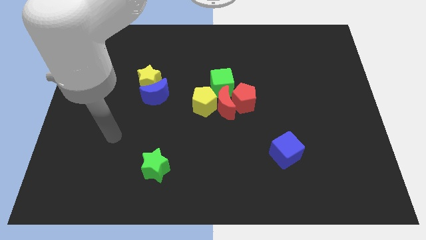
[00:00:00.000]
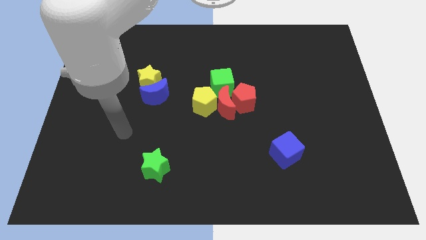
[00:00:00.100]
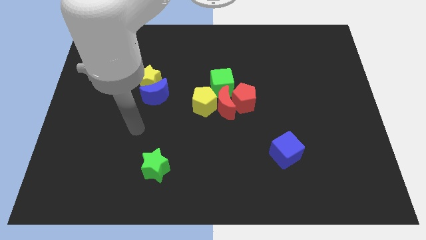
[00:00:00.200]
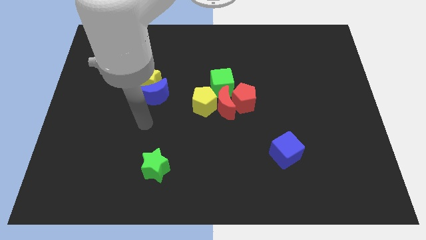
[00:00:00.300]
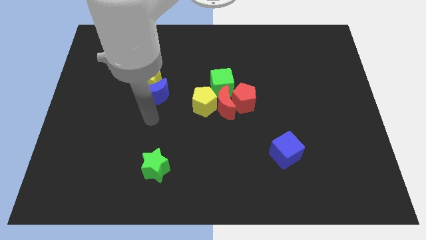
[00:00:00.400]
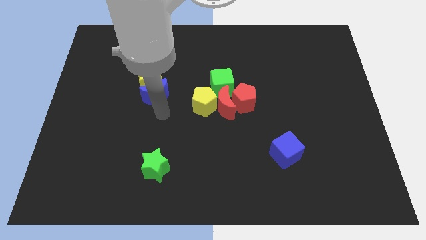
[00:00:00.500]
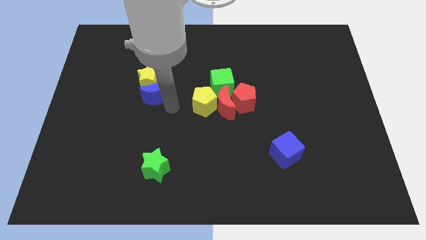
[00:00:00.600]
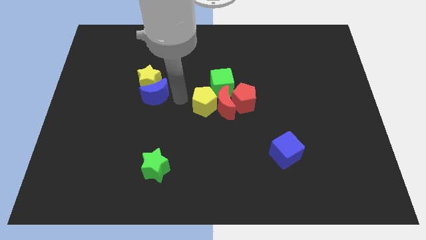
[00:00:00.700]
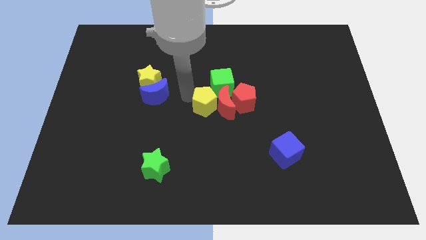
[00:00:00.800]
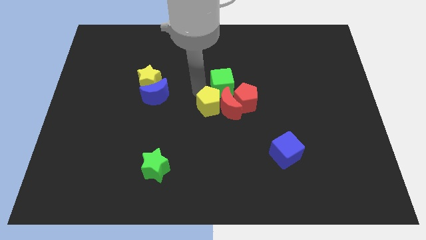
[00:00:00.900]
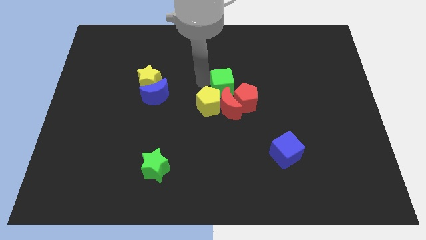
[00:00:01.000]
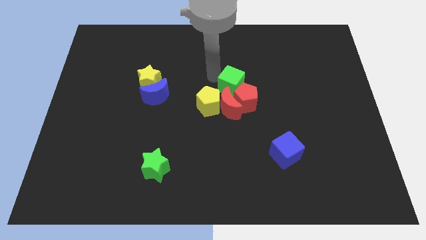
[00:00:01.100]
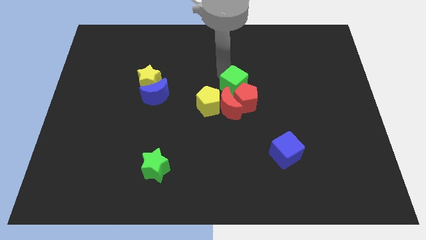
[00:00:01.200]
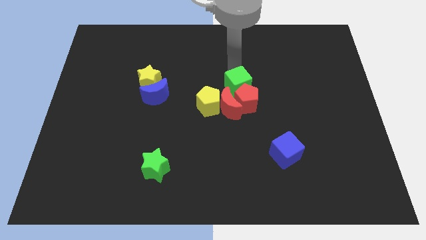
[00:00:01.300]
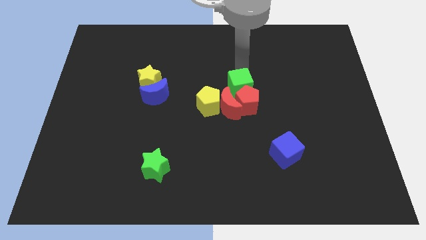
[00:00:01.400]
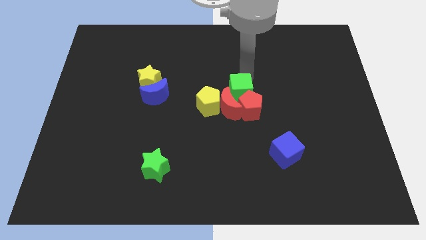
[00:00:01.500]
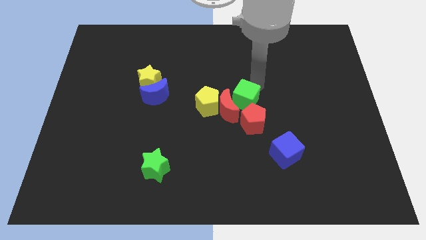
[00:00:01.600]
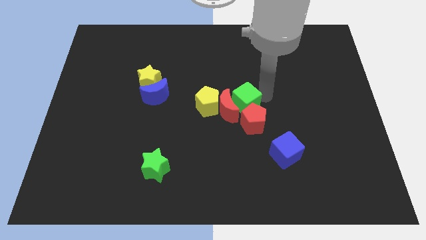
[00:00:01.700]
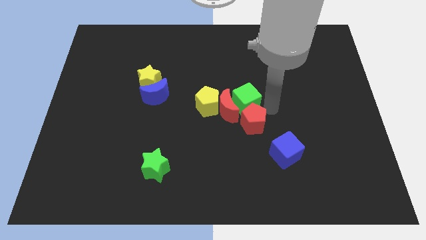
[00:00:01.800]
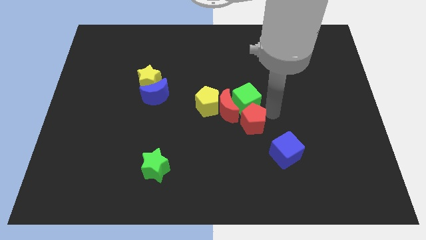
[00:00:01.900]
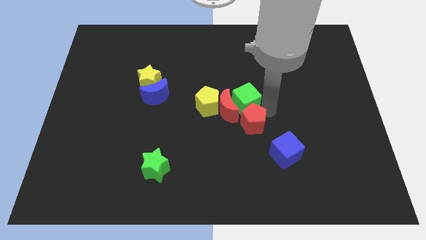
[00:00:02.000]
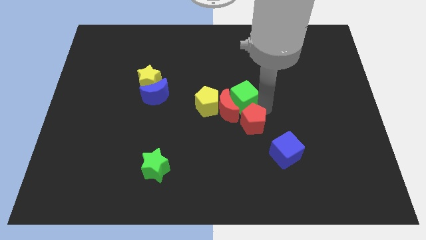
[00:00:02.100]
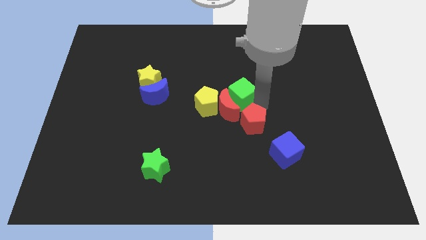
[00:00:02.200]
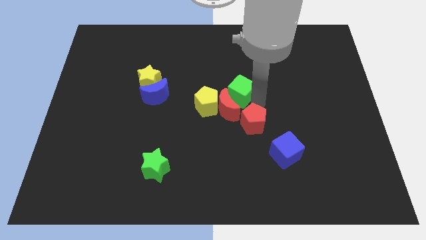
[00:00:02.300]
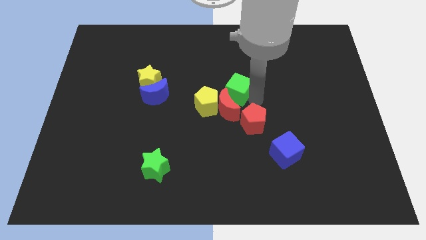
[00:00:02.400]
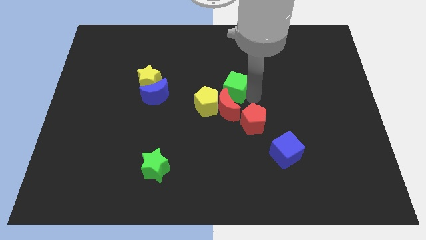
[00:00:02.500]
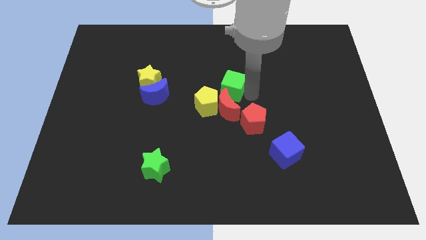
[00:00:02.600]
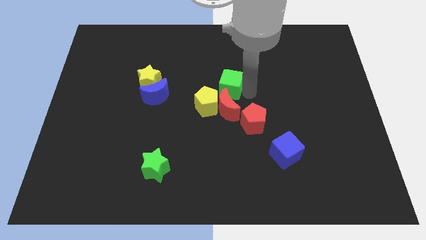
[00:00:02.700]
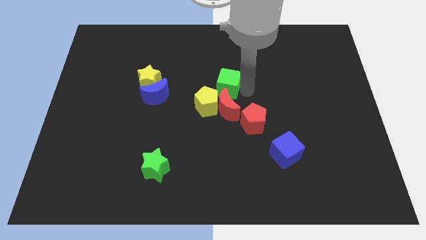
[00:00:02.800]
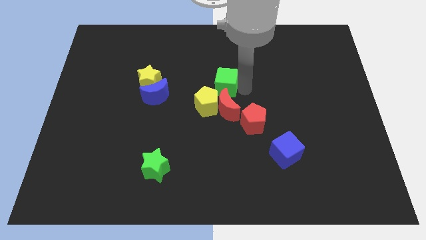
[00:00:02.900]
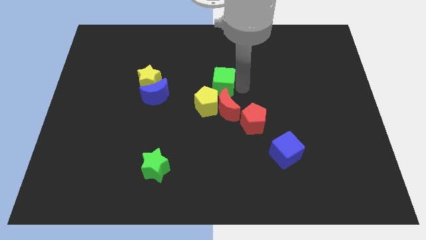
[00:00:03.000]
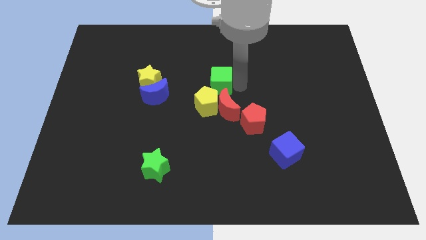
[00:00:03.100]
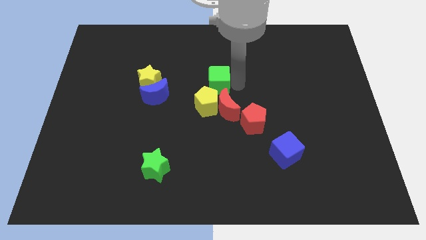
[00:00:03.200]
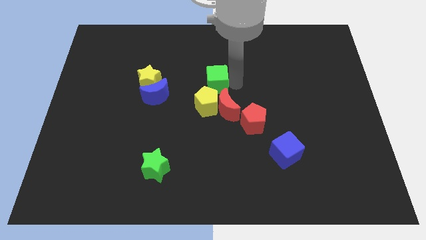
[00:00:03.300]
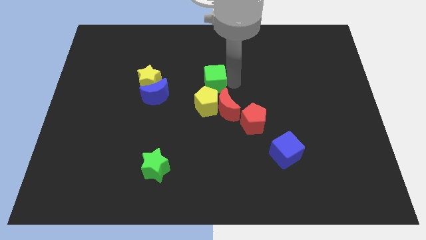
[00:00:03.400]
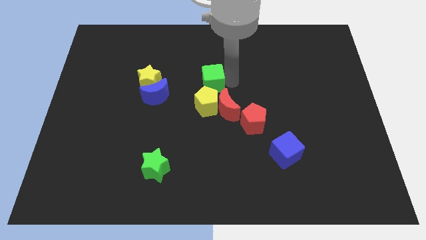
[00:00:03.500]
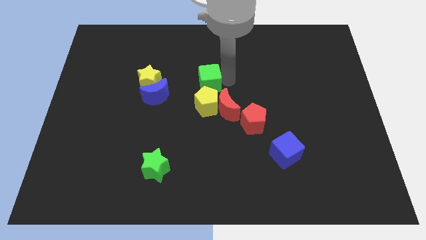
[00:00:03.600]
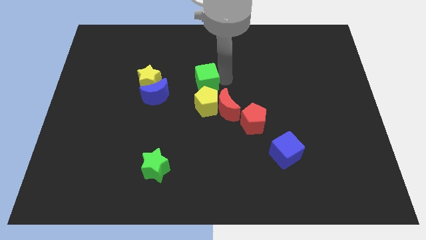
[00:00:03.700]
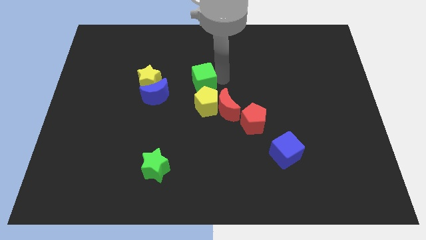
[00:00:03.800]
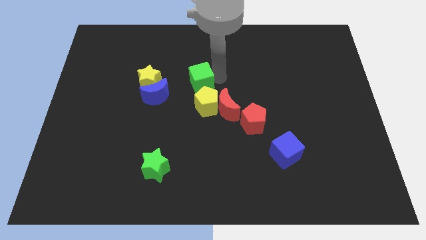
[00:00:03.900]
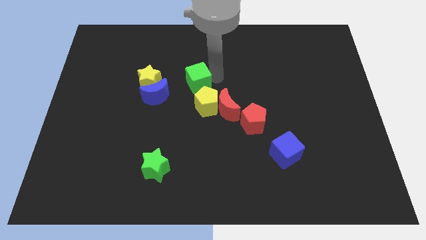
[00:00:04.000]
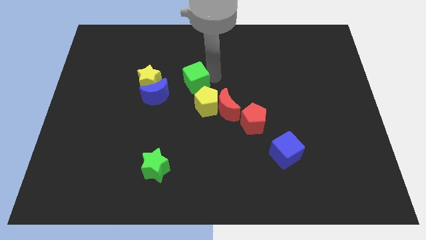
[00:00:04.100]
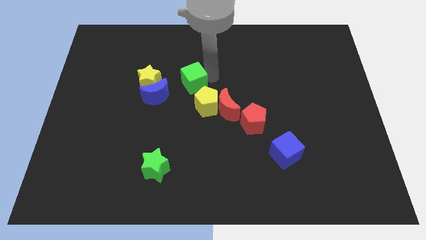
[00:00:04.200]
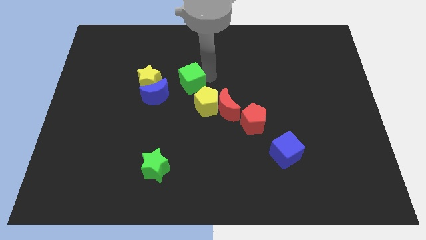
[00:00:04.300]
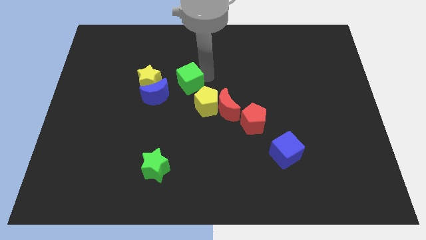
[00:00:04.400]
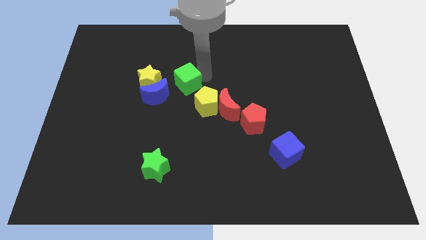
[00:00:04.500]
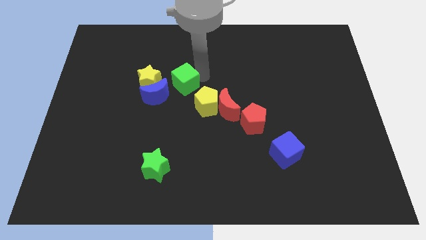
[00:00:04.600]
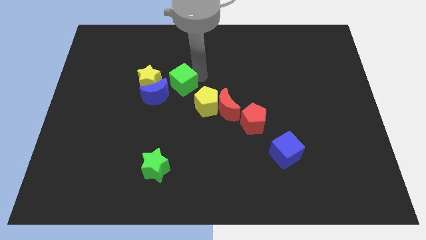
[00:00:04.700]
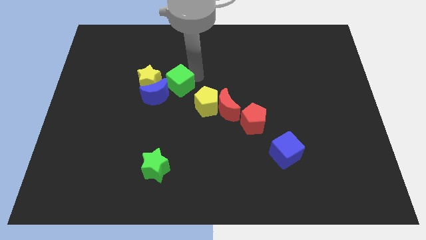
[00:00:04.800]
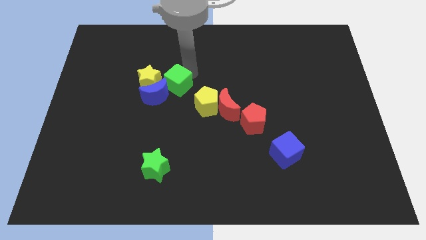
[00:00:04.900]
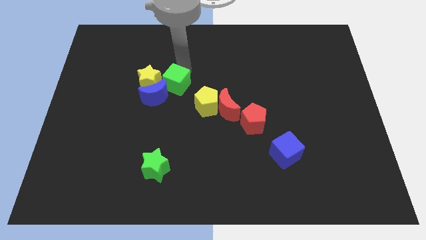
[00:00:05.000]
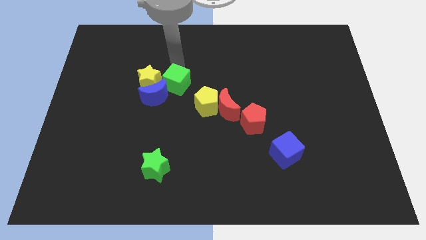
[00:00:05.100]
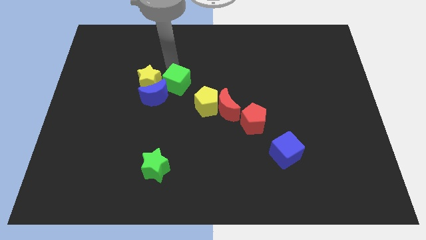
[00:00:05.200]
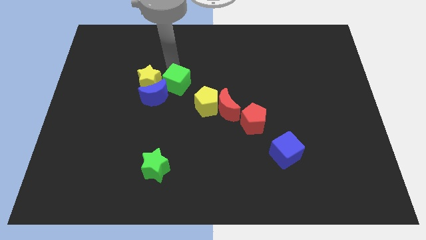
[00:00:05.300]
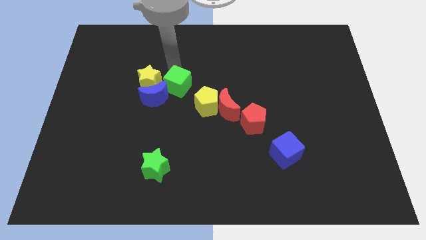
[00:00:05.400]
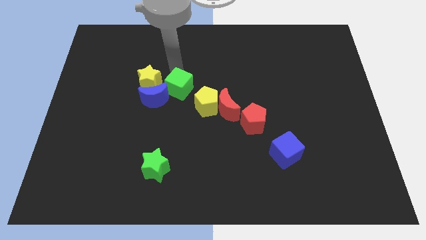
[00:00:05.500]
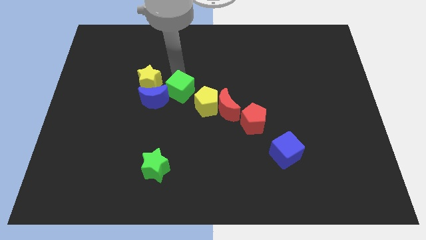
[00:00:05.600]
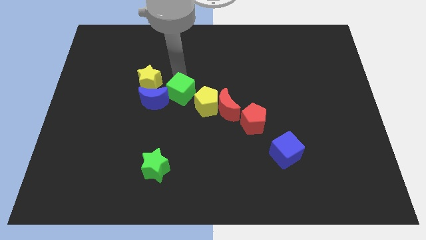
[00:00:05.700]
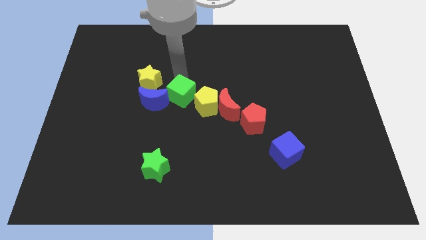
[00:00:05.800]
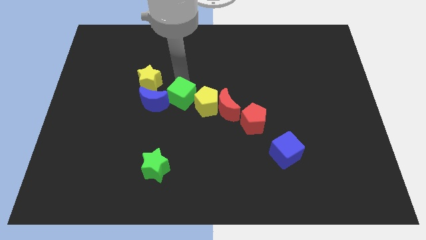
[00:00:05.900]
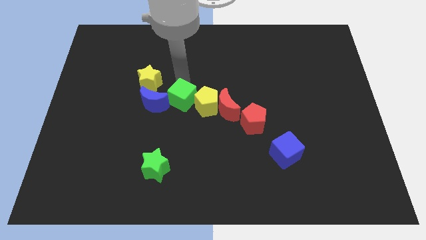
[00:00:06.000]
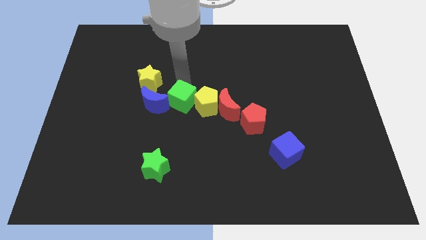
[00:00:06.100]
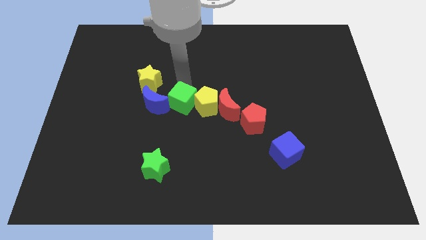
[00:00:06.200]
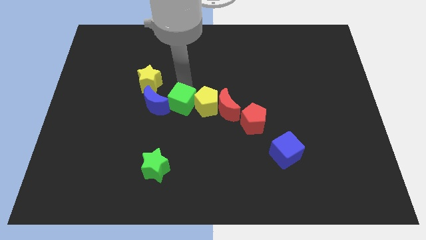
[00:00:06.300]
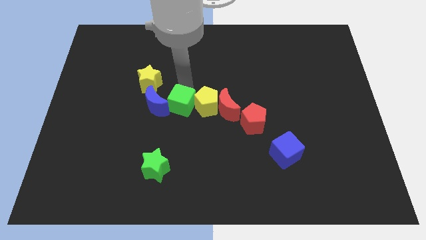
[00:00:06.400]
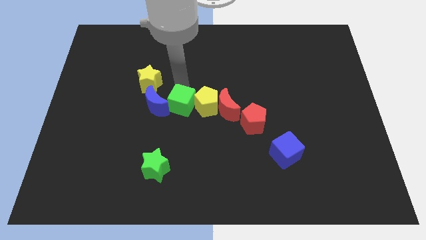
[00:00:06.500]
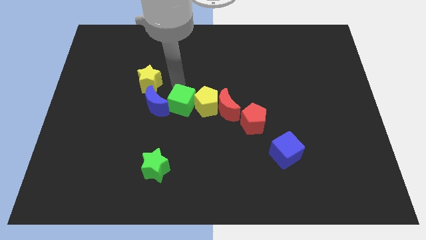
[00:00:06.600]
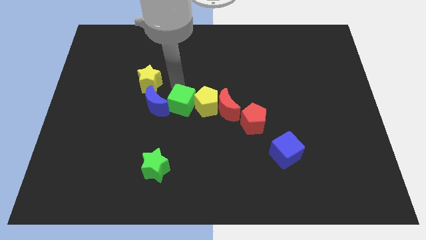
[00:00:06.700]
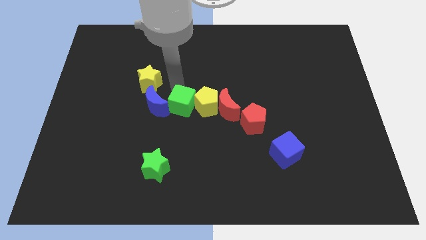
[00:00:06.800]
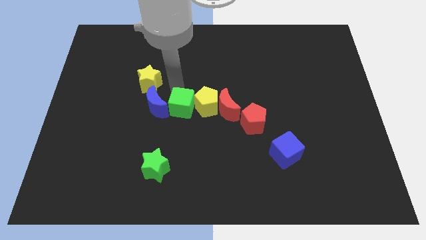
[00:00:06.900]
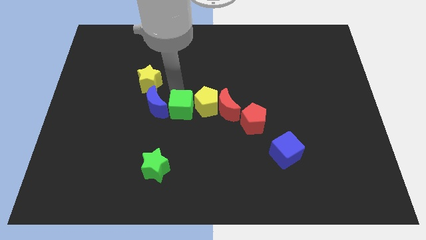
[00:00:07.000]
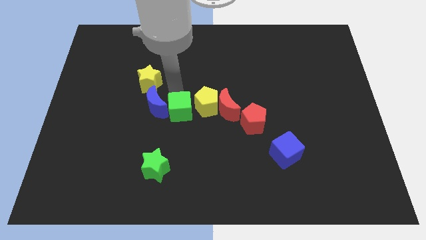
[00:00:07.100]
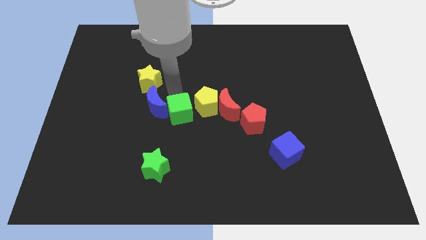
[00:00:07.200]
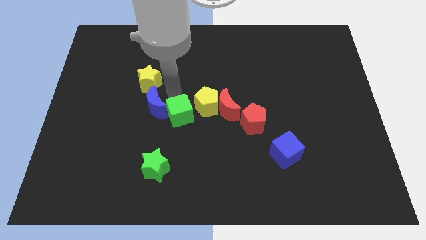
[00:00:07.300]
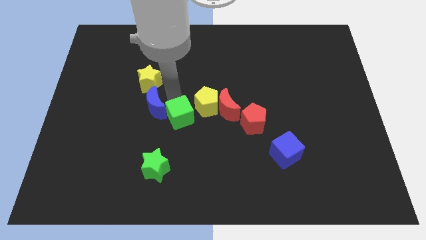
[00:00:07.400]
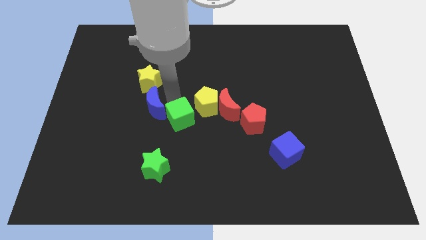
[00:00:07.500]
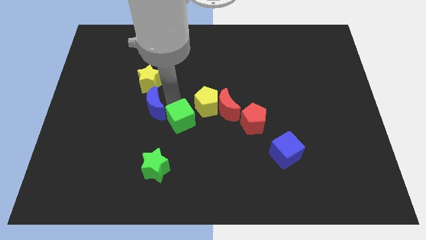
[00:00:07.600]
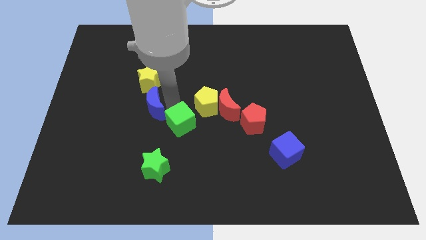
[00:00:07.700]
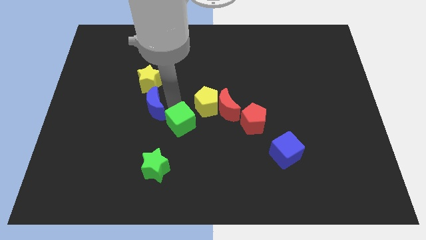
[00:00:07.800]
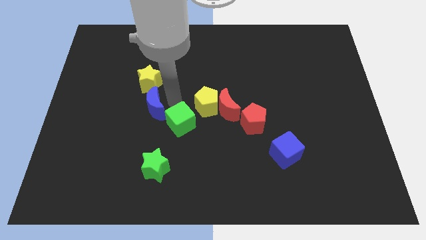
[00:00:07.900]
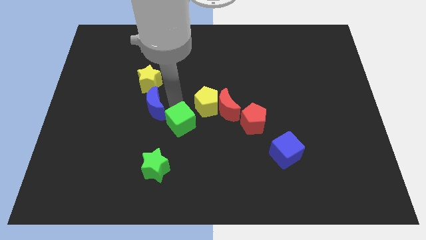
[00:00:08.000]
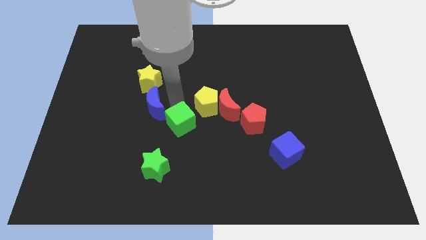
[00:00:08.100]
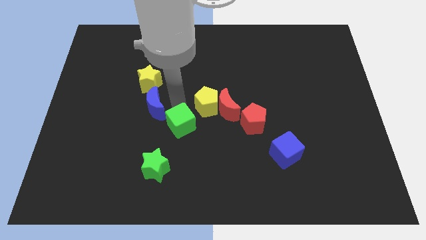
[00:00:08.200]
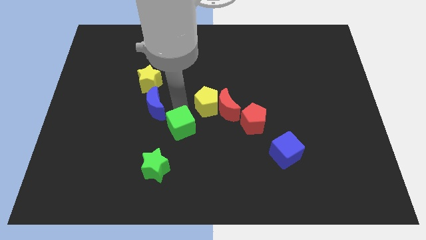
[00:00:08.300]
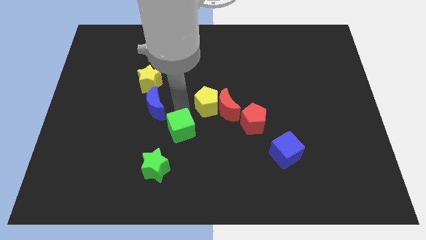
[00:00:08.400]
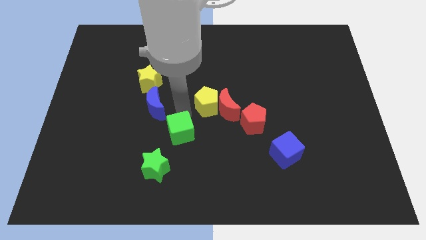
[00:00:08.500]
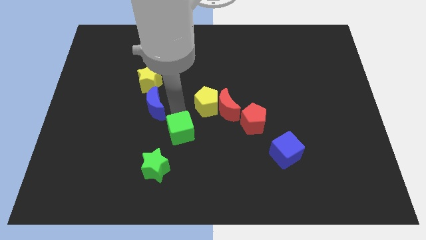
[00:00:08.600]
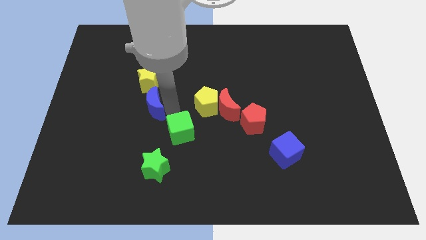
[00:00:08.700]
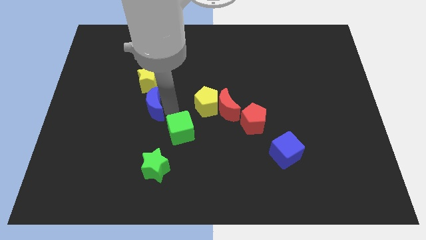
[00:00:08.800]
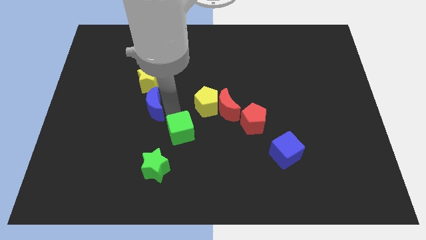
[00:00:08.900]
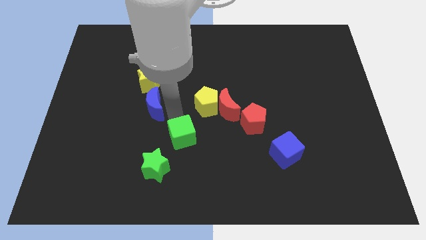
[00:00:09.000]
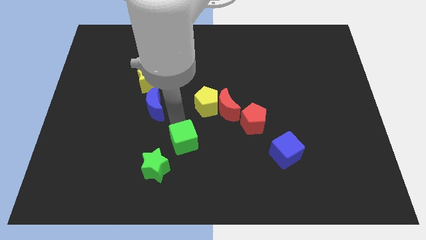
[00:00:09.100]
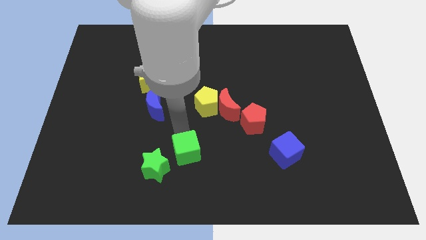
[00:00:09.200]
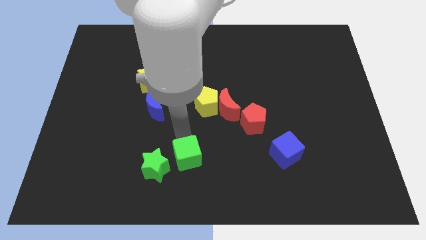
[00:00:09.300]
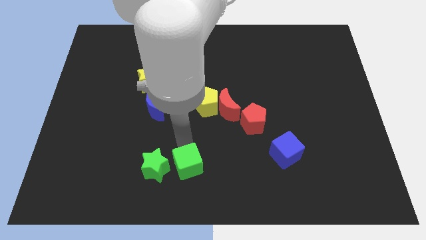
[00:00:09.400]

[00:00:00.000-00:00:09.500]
push the green cube to the bottom side
